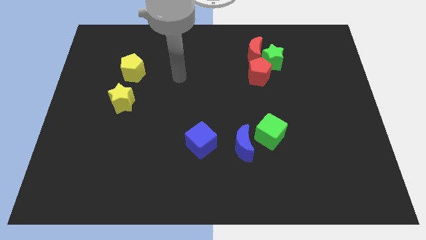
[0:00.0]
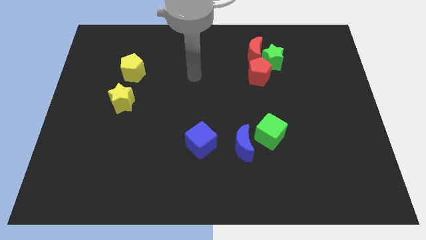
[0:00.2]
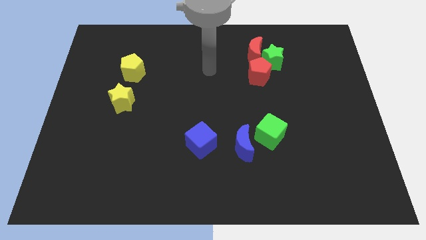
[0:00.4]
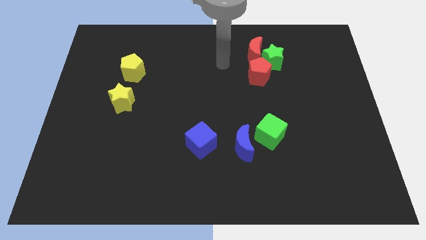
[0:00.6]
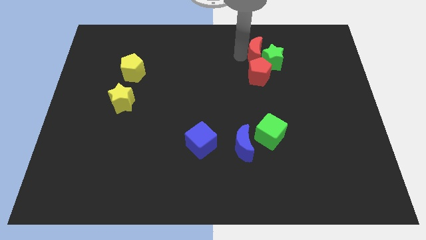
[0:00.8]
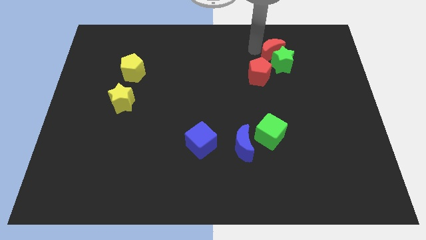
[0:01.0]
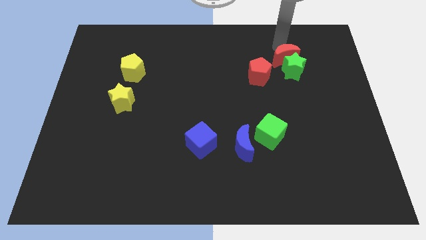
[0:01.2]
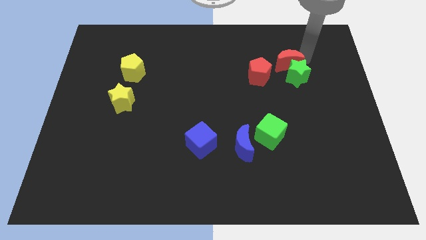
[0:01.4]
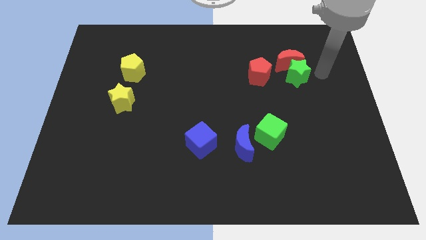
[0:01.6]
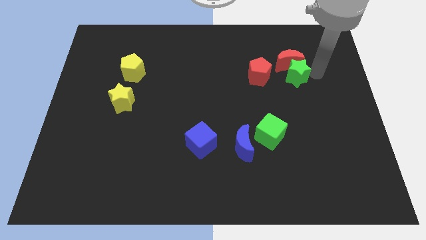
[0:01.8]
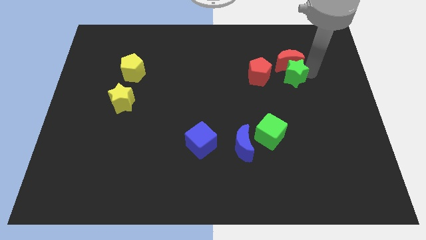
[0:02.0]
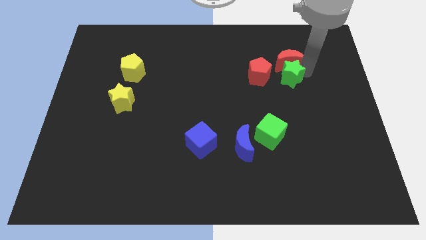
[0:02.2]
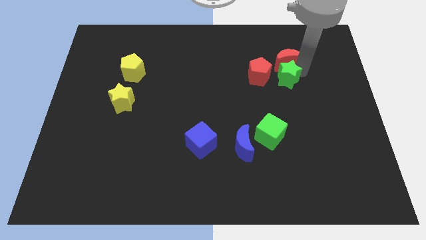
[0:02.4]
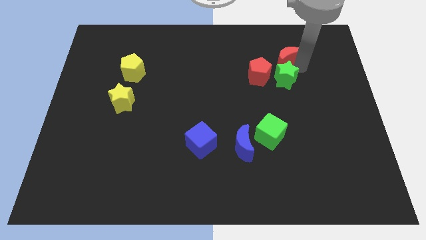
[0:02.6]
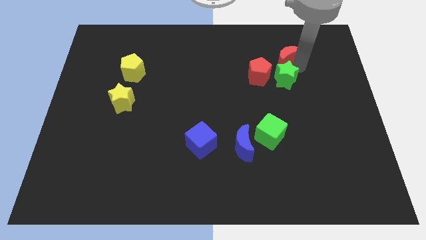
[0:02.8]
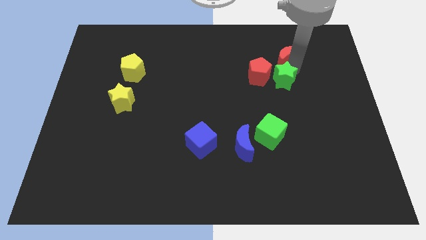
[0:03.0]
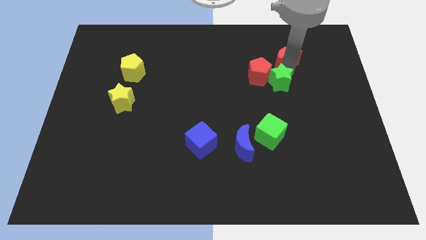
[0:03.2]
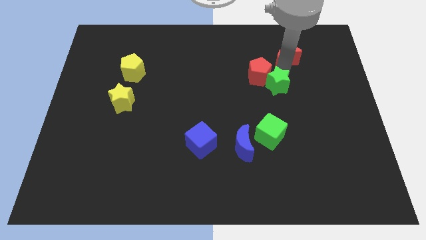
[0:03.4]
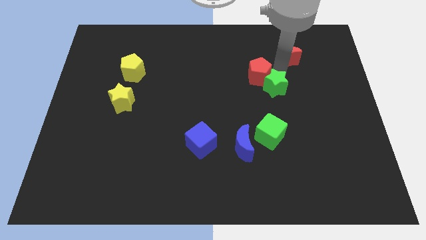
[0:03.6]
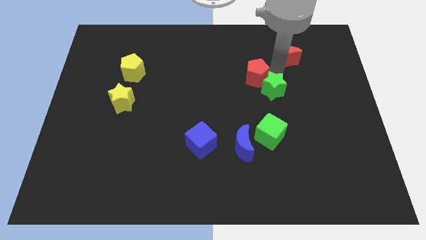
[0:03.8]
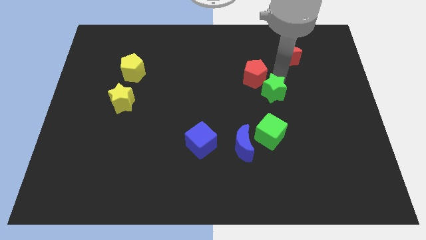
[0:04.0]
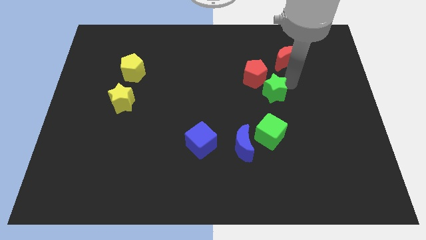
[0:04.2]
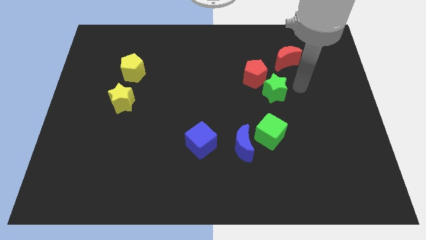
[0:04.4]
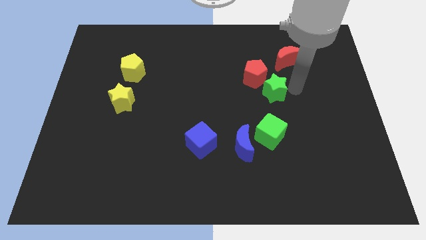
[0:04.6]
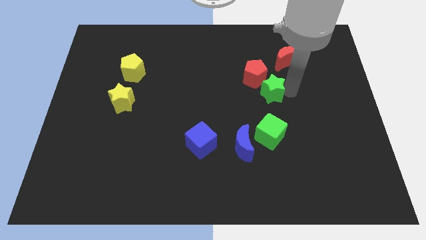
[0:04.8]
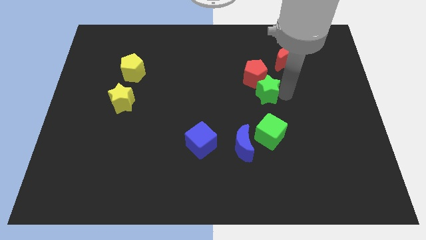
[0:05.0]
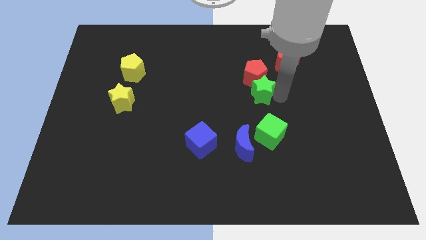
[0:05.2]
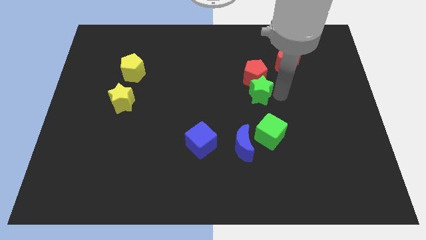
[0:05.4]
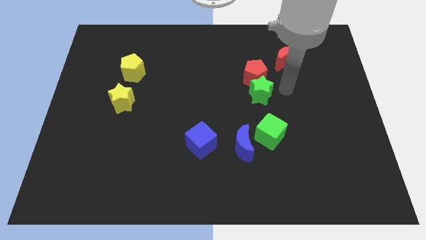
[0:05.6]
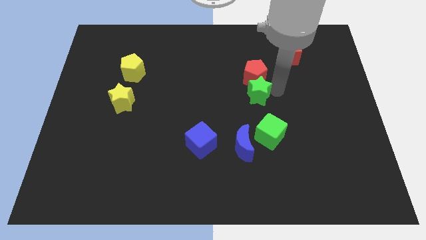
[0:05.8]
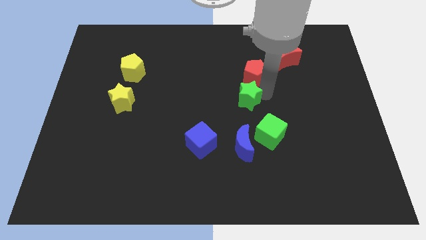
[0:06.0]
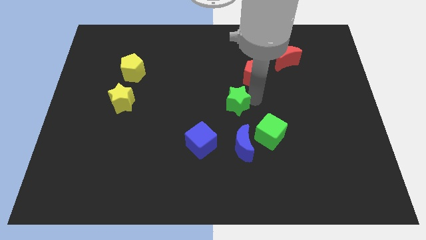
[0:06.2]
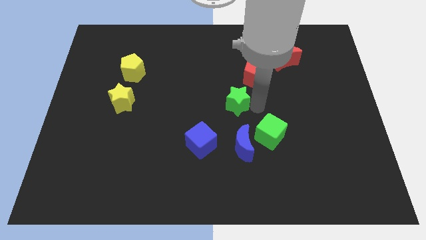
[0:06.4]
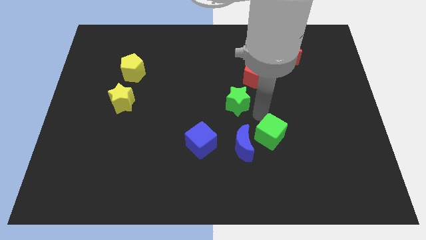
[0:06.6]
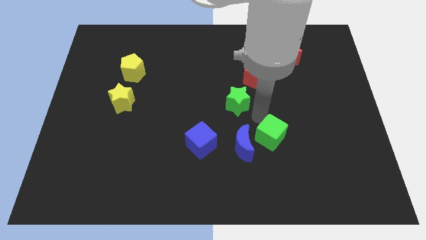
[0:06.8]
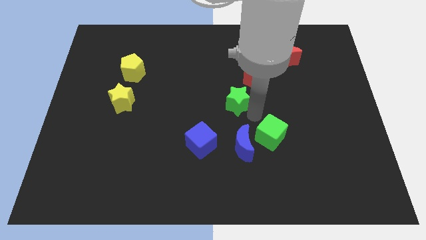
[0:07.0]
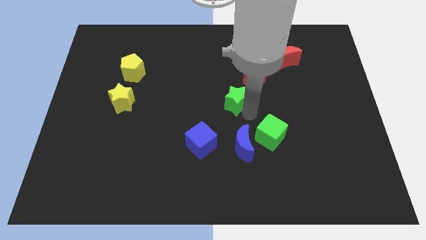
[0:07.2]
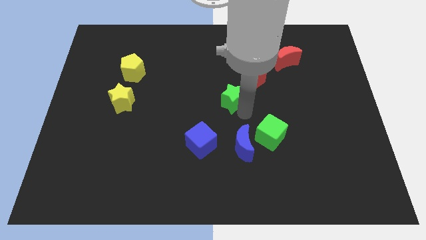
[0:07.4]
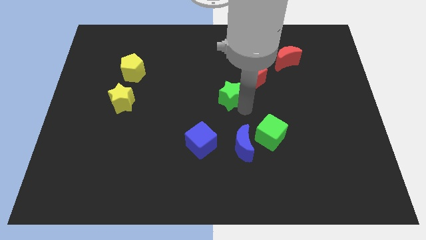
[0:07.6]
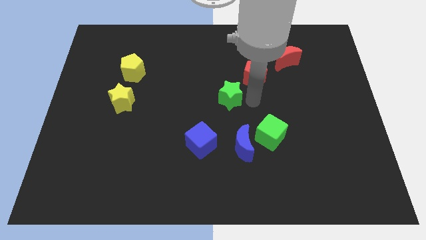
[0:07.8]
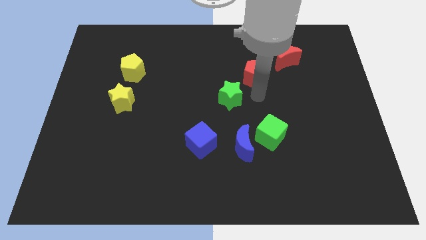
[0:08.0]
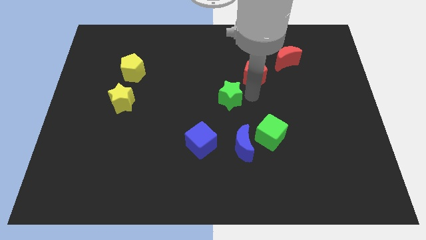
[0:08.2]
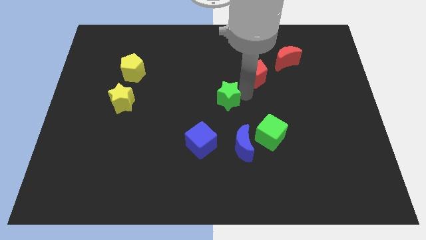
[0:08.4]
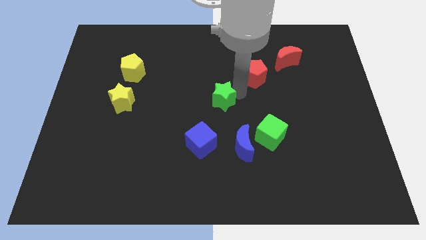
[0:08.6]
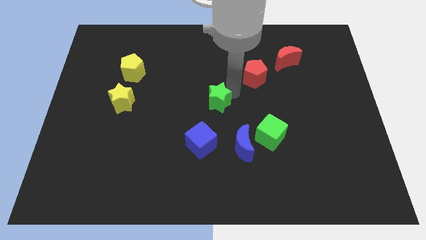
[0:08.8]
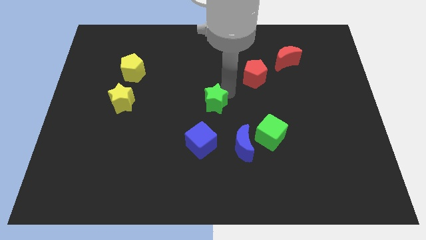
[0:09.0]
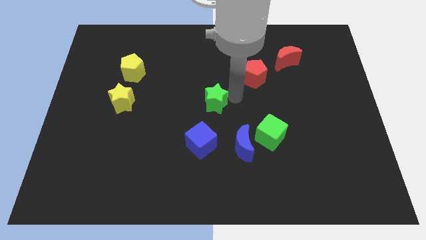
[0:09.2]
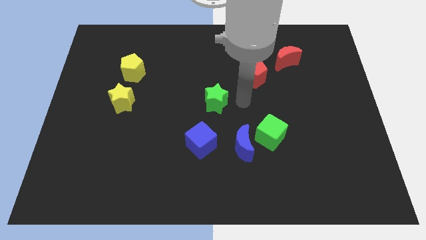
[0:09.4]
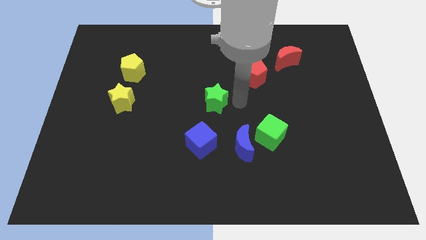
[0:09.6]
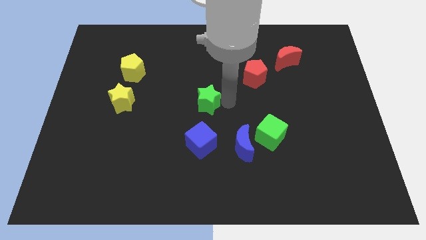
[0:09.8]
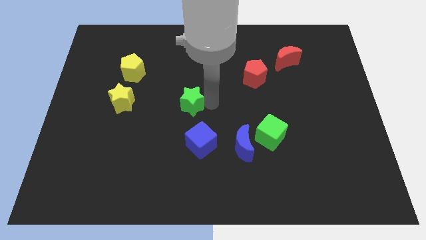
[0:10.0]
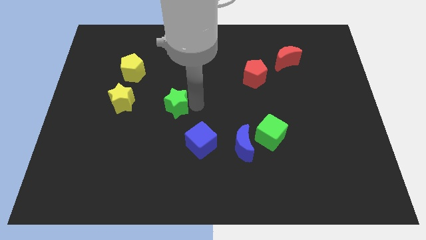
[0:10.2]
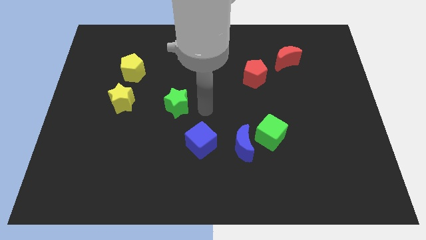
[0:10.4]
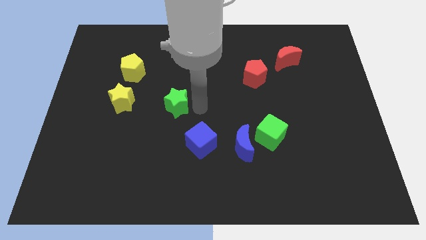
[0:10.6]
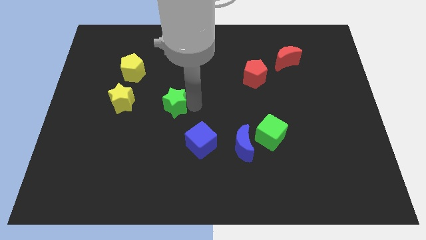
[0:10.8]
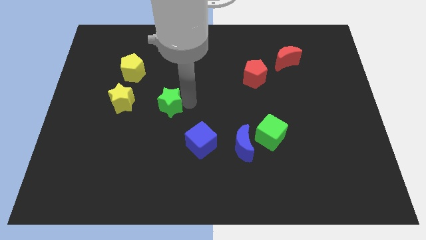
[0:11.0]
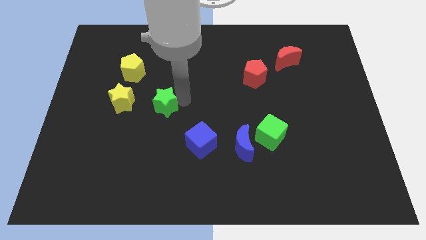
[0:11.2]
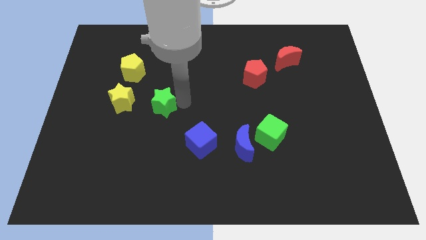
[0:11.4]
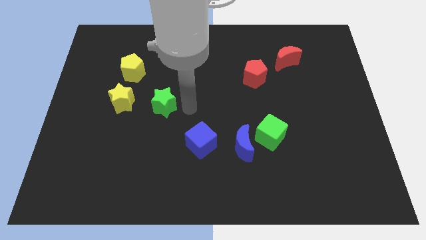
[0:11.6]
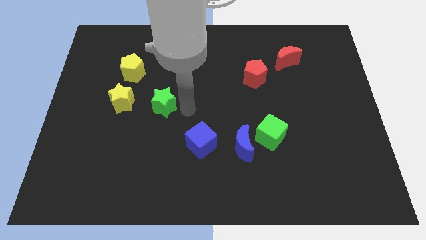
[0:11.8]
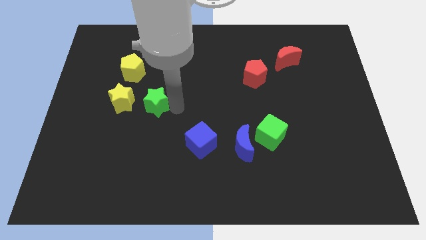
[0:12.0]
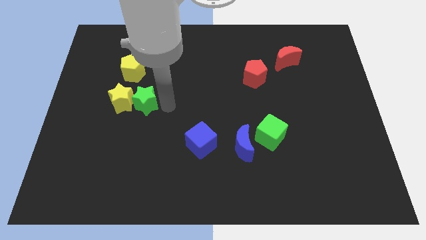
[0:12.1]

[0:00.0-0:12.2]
push the green star to the yellow star

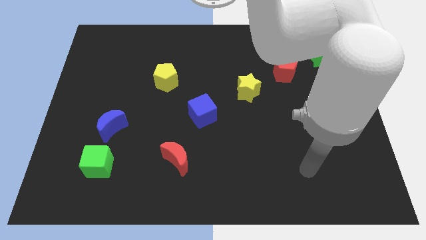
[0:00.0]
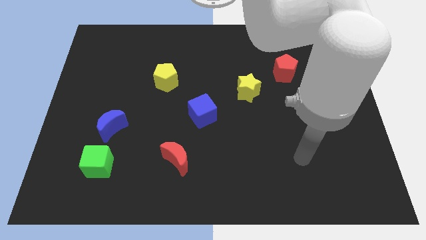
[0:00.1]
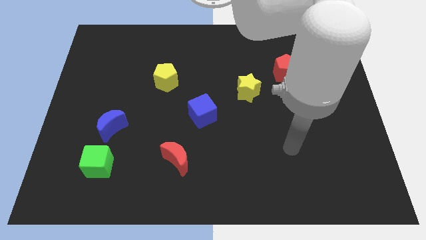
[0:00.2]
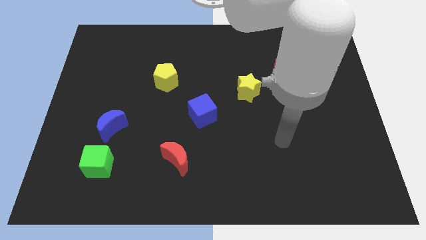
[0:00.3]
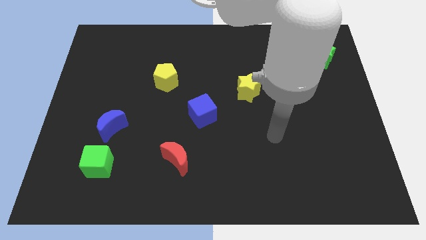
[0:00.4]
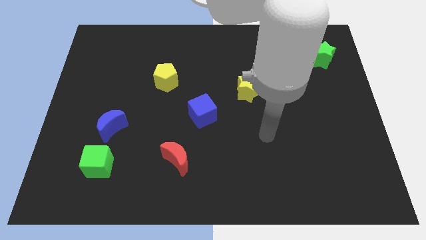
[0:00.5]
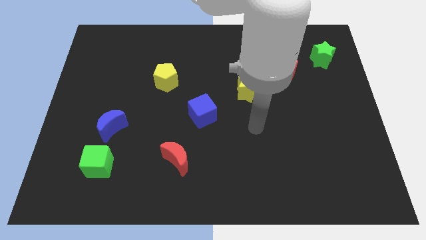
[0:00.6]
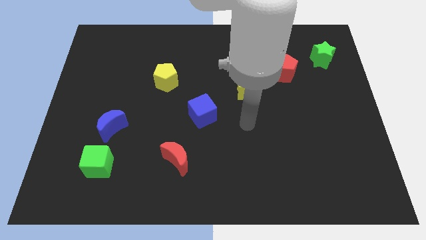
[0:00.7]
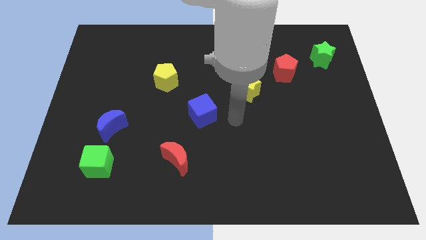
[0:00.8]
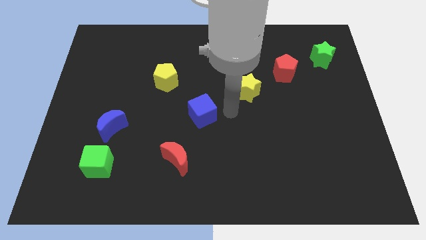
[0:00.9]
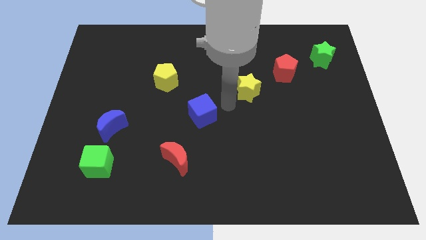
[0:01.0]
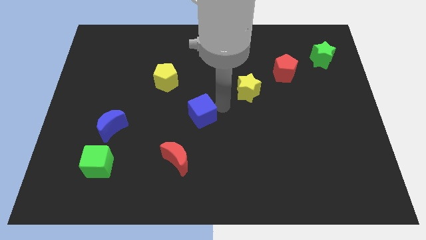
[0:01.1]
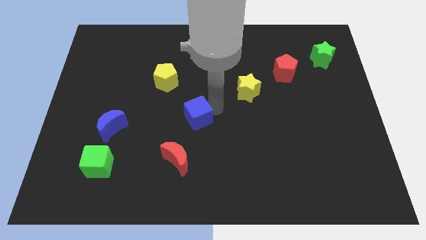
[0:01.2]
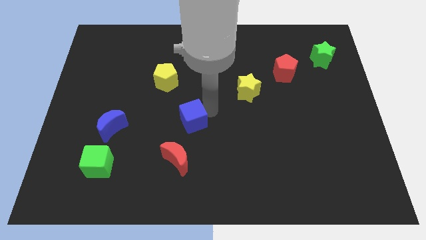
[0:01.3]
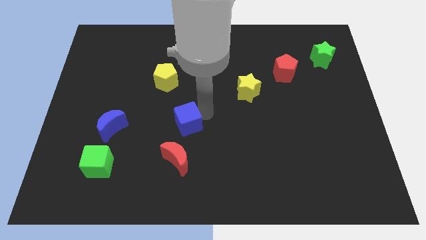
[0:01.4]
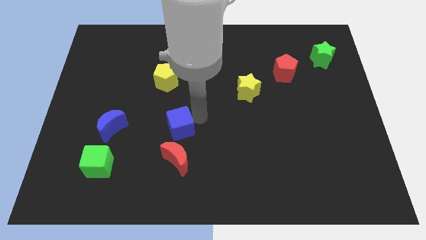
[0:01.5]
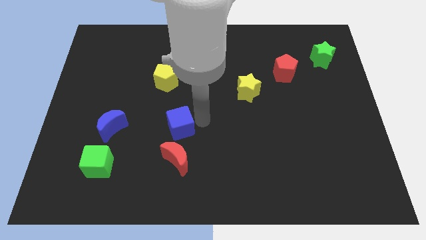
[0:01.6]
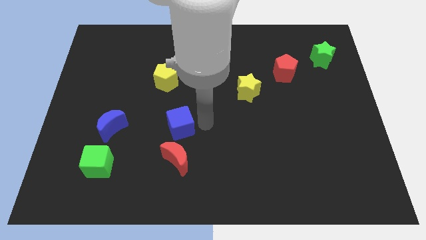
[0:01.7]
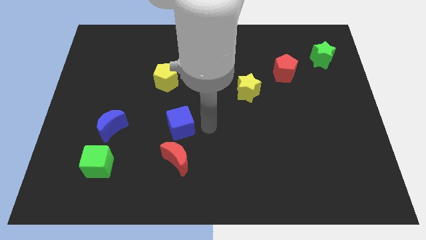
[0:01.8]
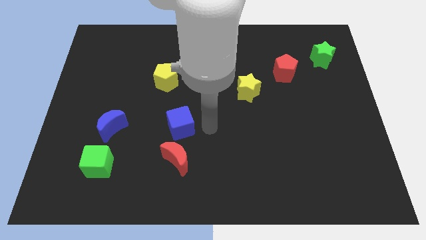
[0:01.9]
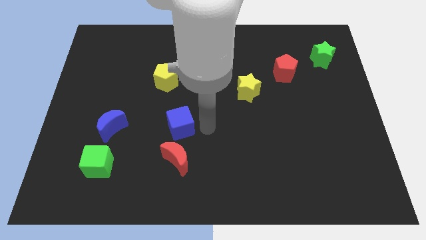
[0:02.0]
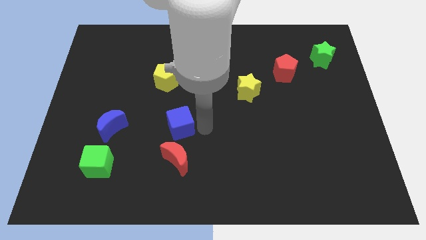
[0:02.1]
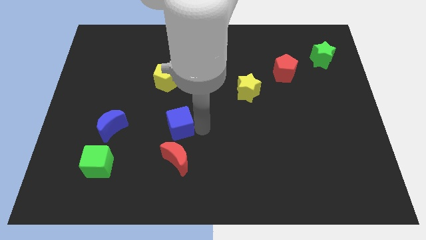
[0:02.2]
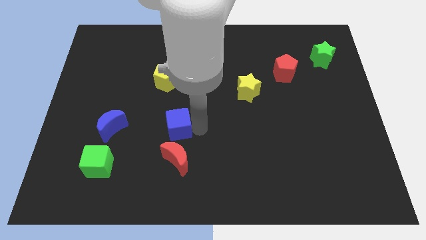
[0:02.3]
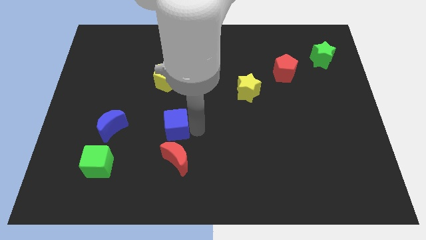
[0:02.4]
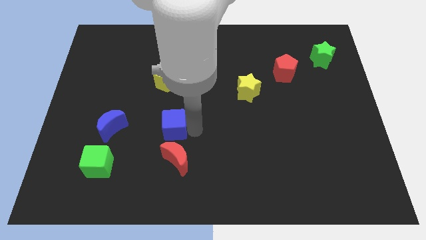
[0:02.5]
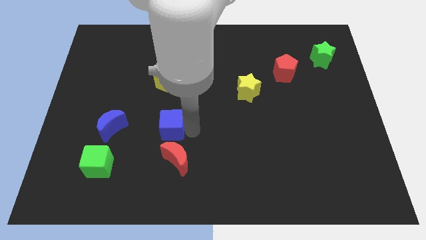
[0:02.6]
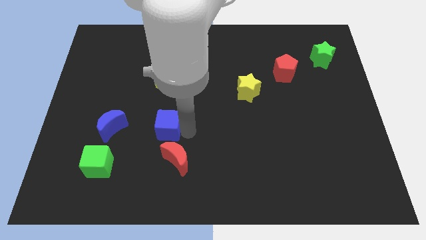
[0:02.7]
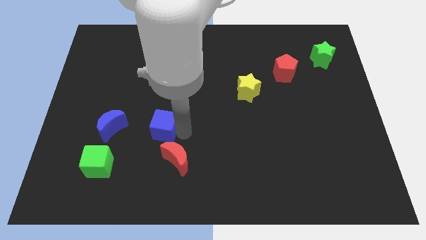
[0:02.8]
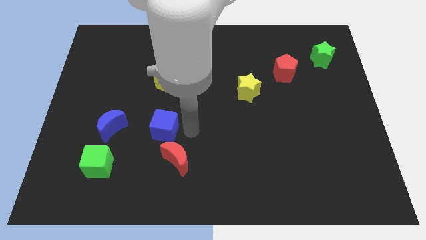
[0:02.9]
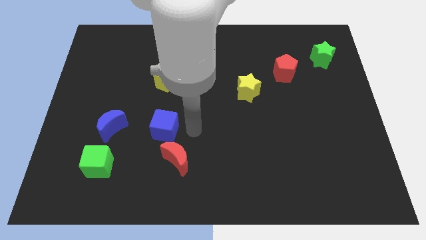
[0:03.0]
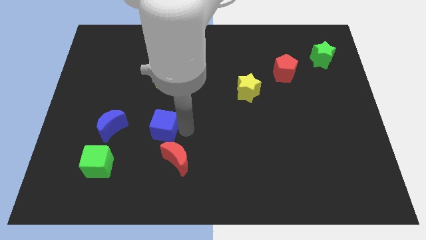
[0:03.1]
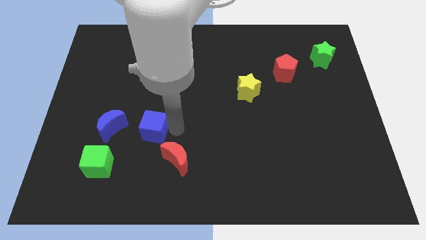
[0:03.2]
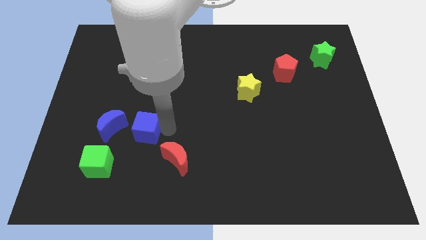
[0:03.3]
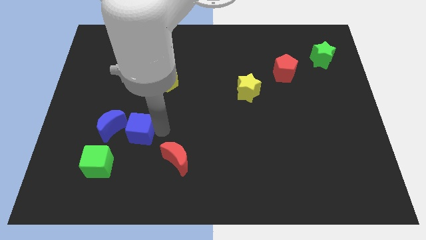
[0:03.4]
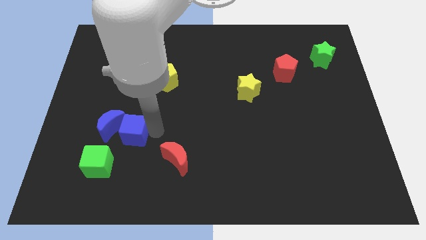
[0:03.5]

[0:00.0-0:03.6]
push the blue cube to the blue moon
